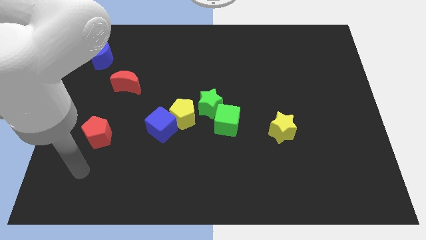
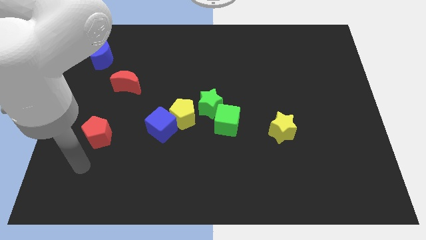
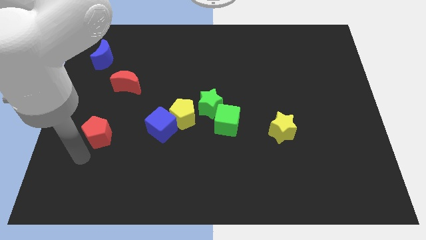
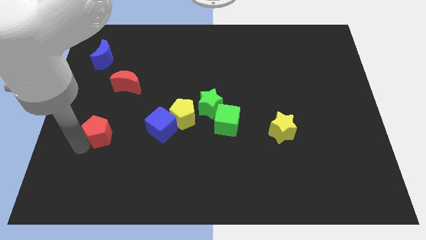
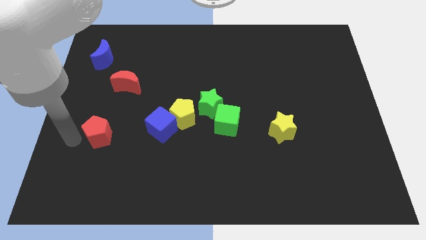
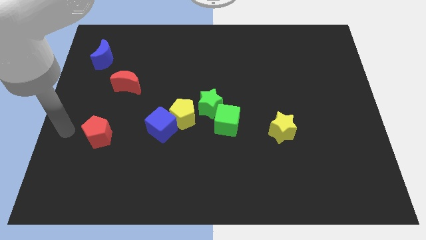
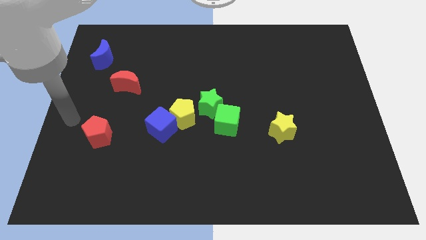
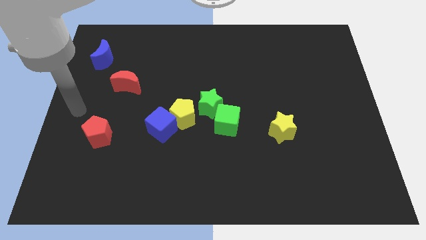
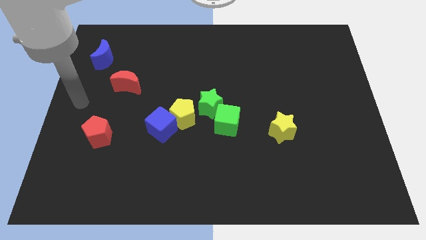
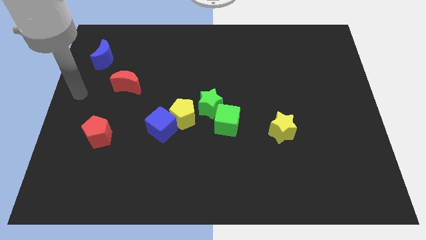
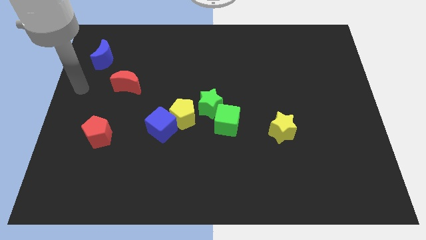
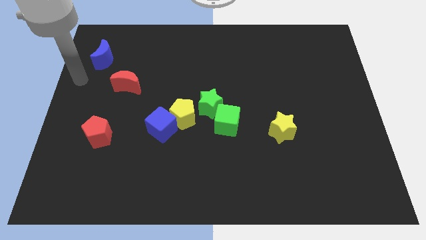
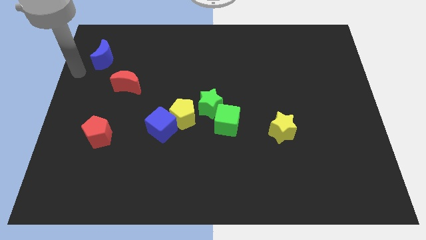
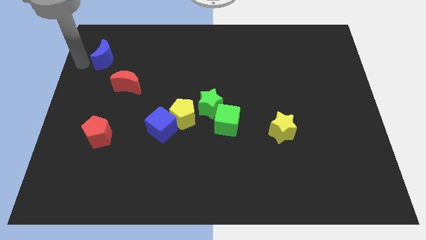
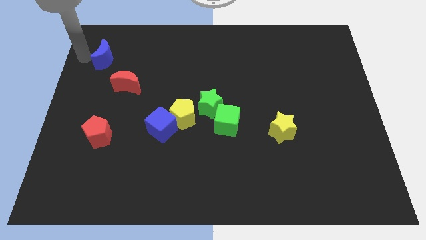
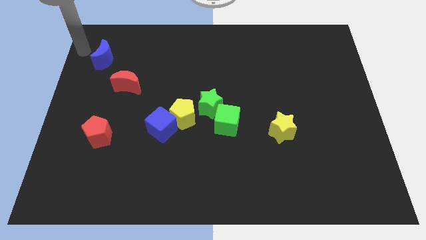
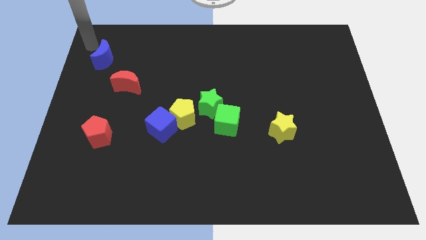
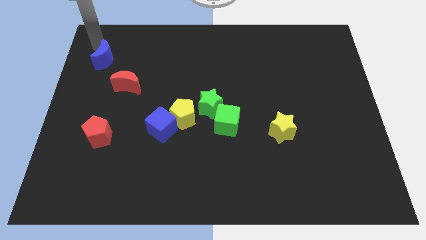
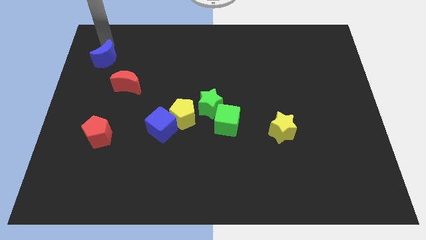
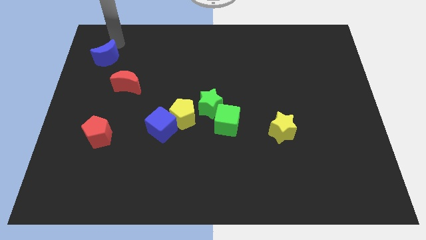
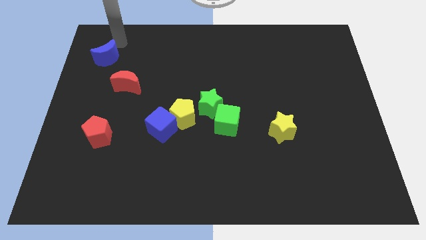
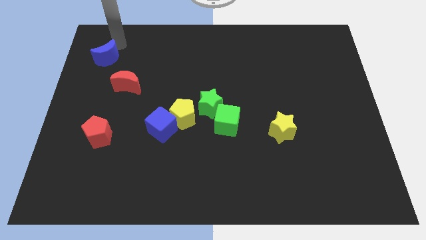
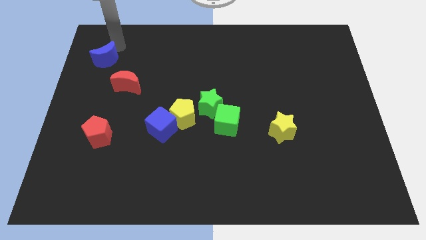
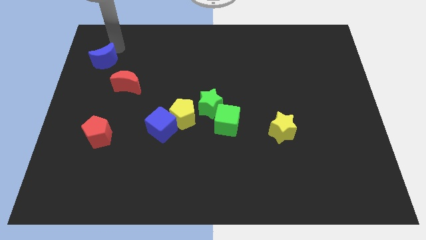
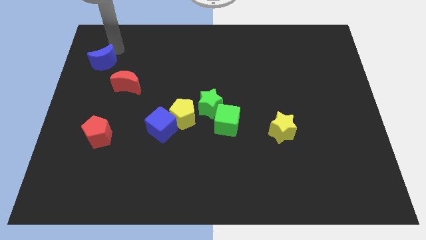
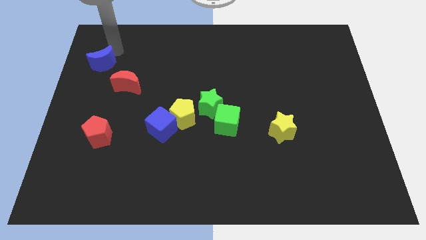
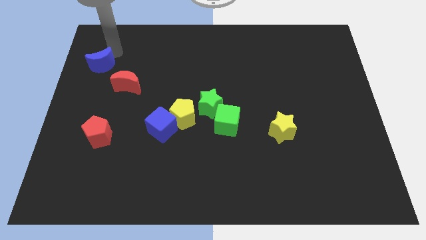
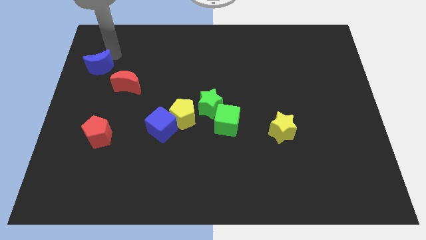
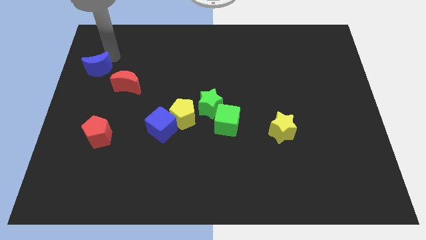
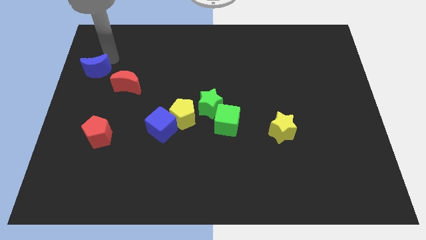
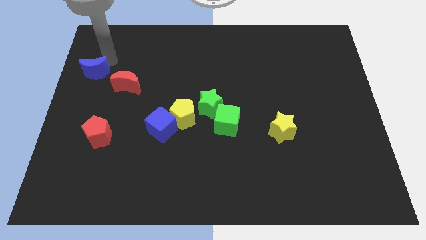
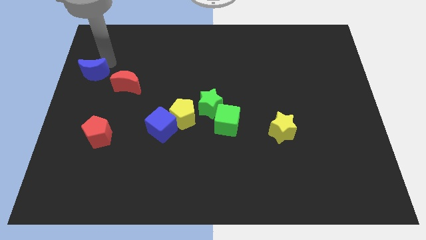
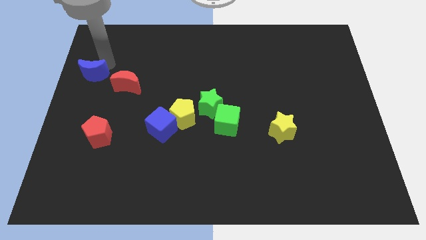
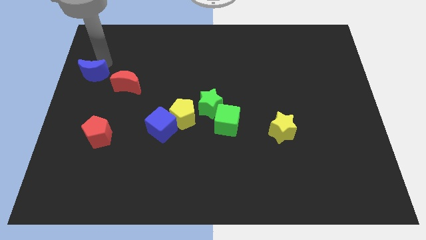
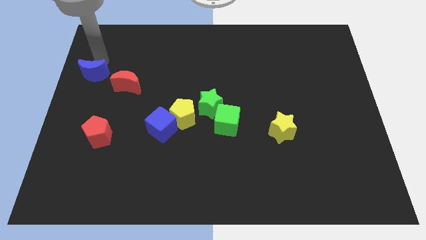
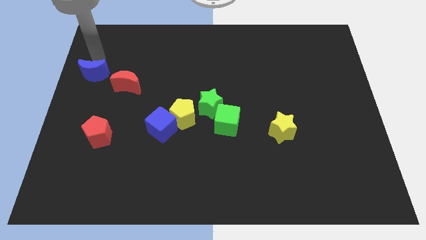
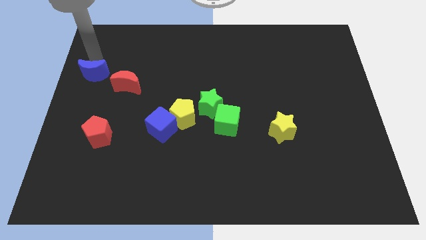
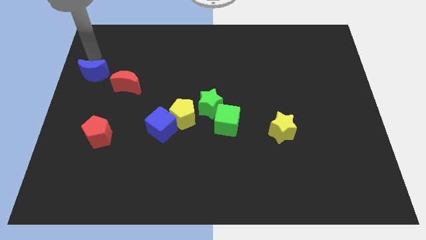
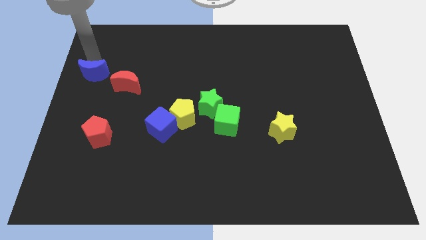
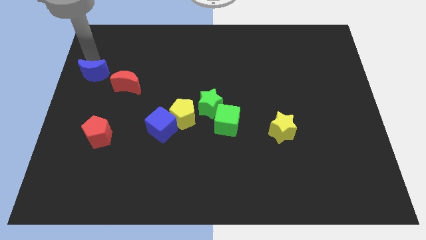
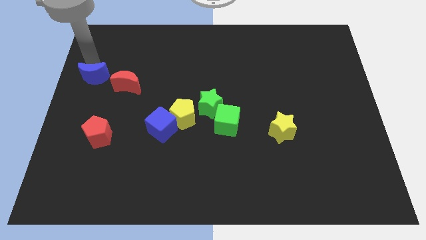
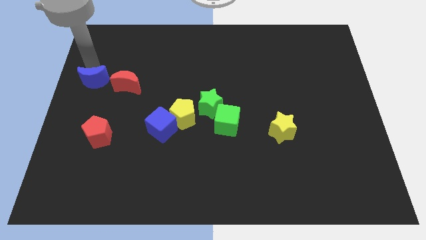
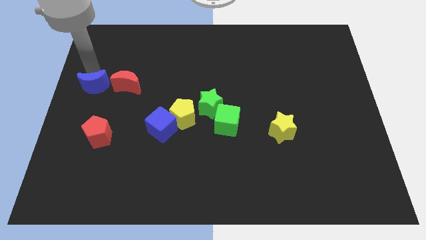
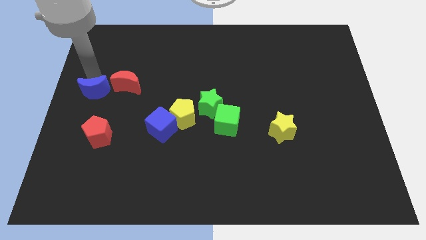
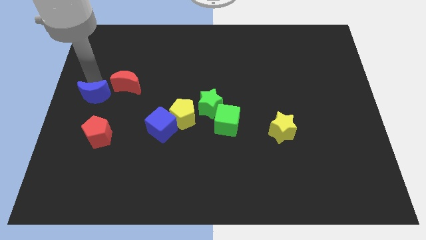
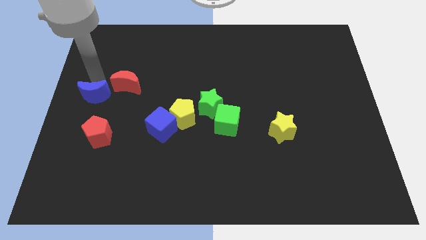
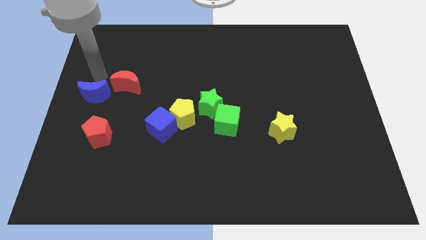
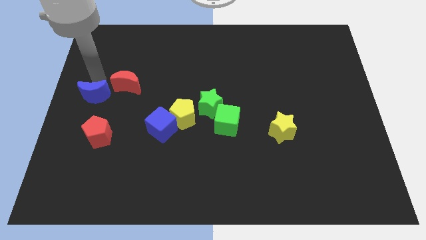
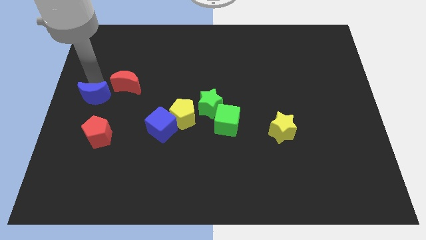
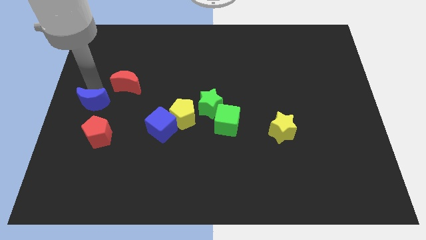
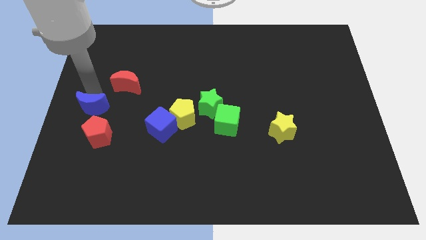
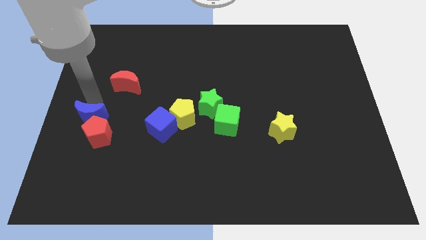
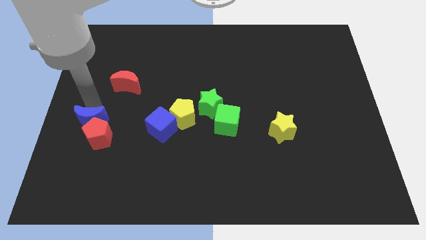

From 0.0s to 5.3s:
move the blue moon down

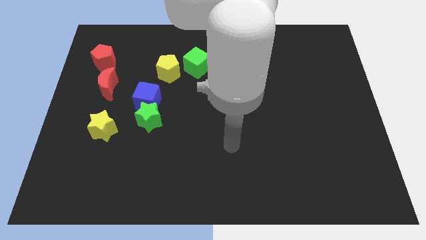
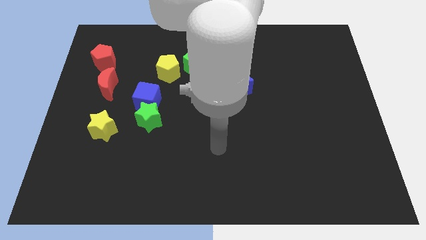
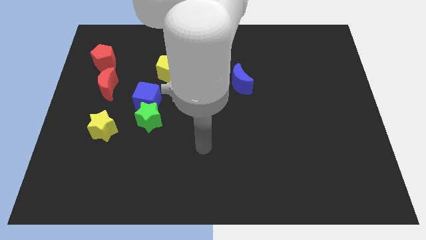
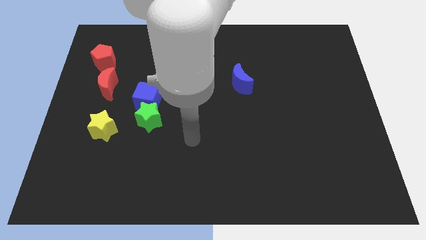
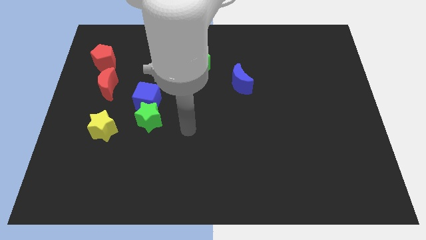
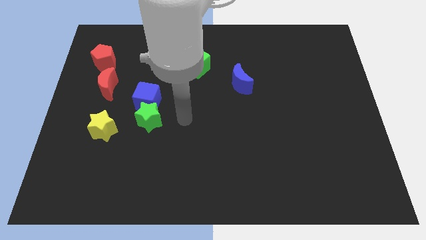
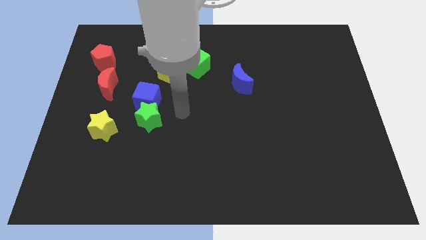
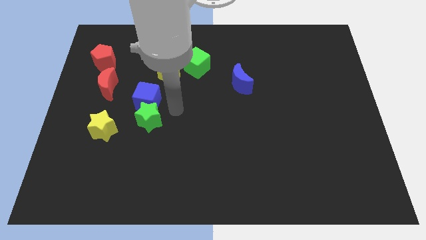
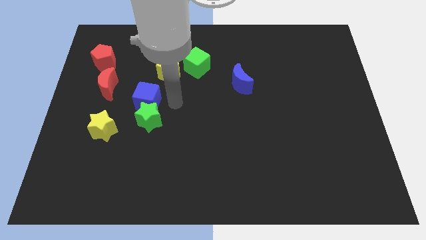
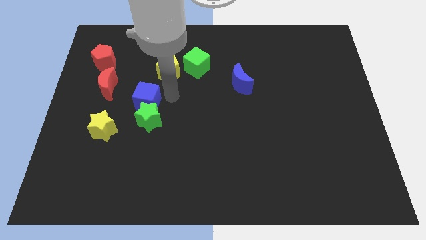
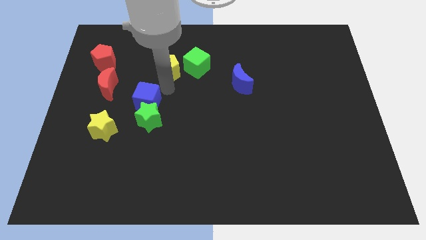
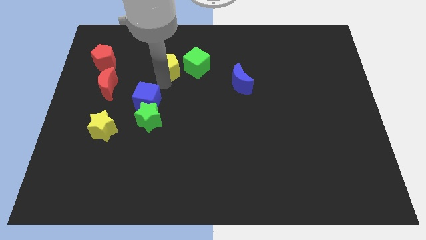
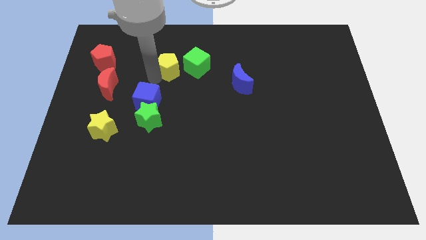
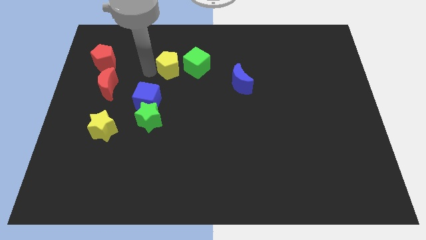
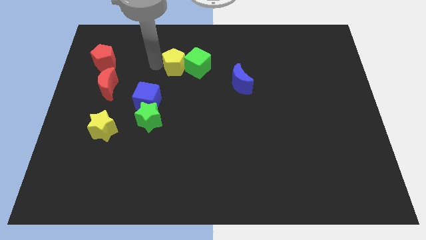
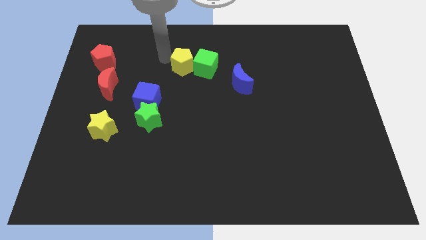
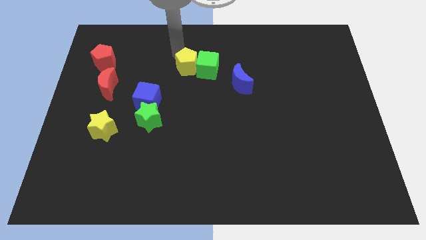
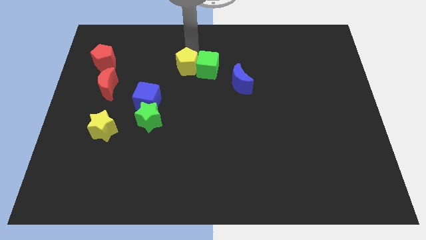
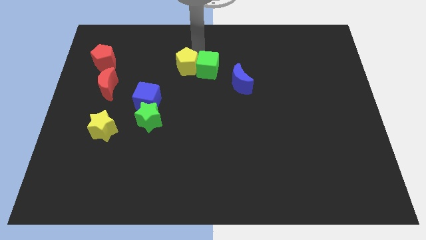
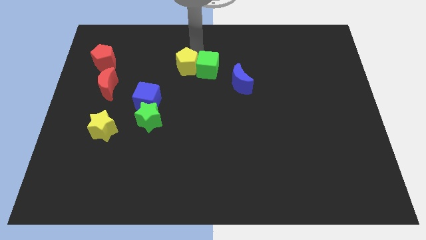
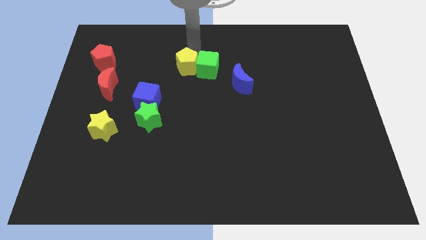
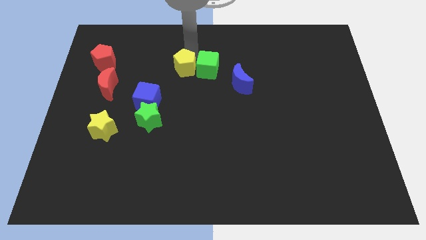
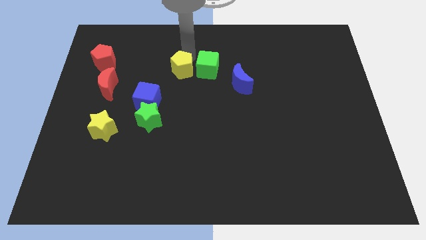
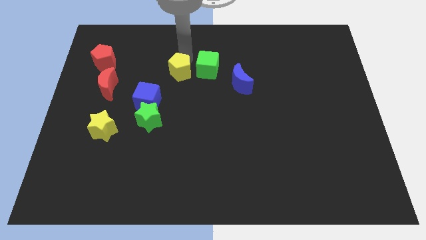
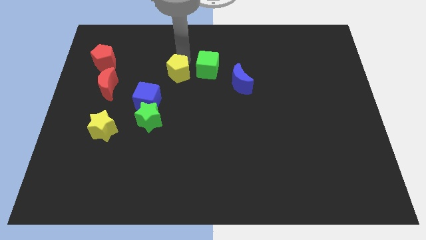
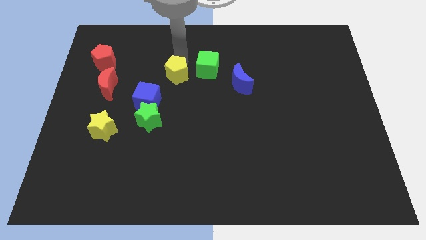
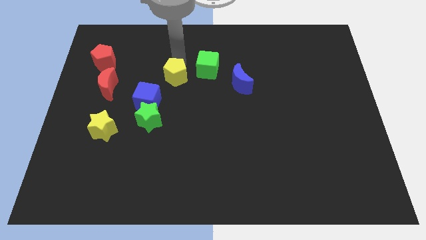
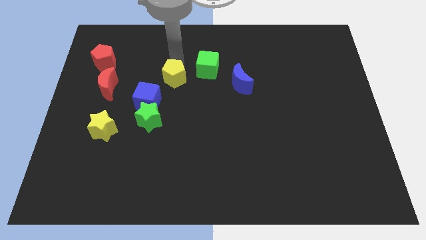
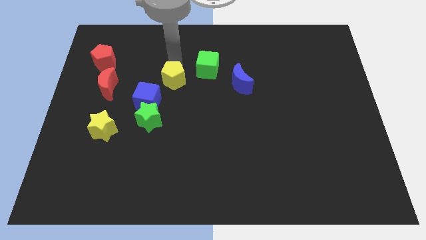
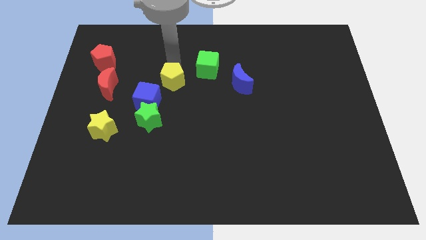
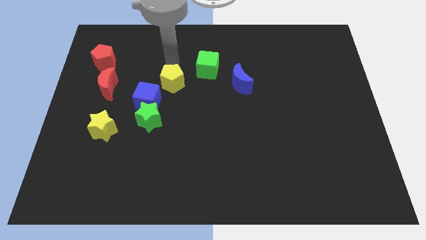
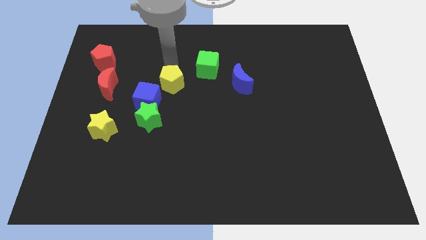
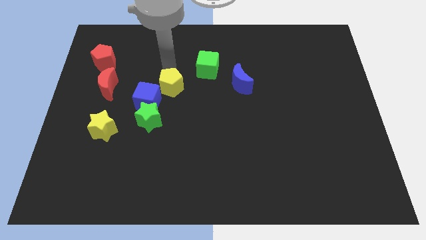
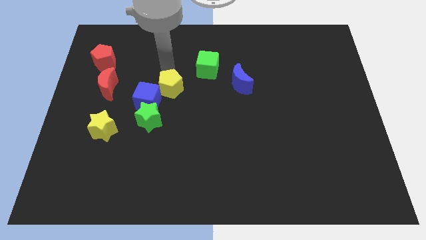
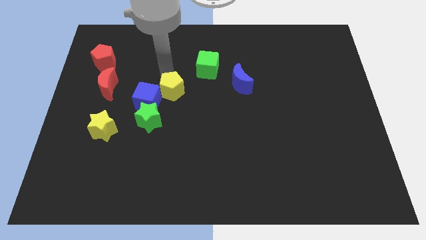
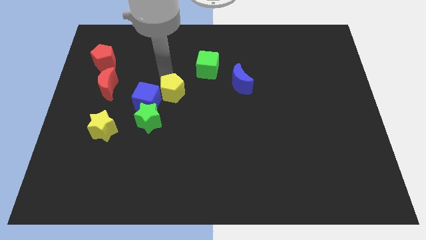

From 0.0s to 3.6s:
slightly move the yellow pentagon down
